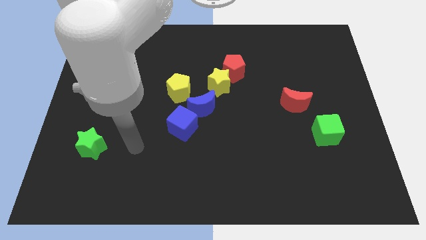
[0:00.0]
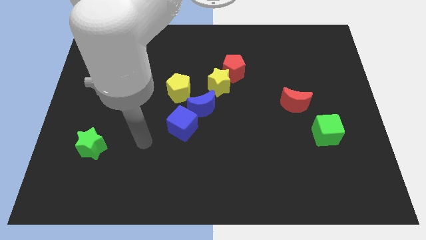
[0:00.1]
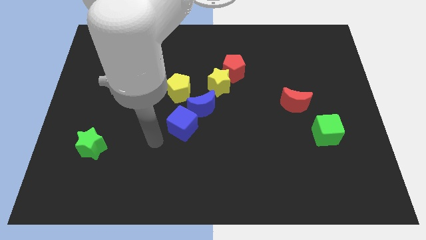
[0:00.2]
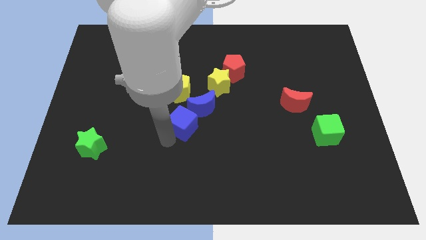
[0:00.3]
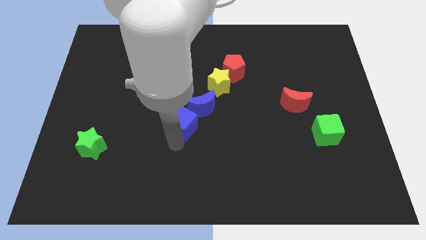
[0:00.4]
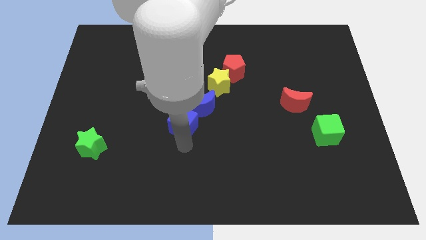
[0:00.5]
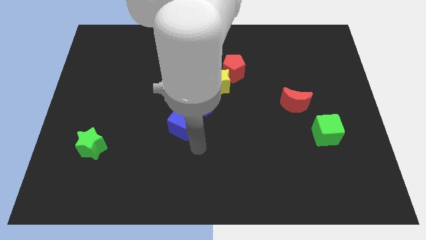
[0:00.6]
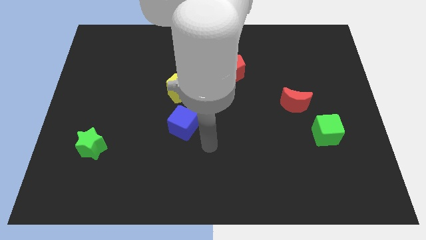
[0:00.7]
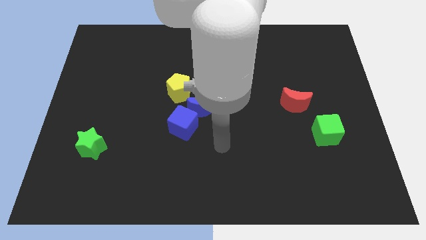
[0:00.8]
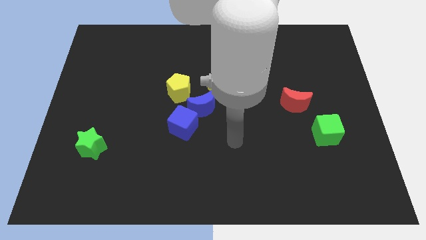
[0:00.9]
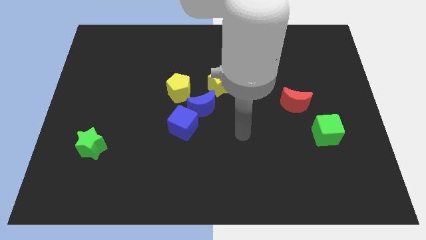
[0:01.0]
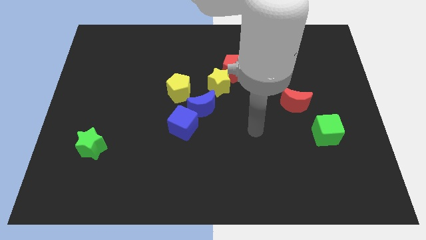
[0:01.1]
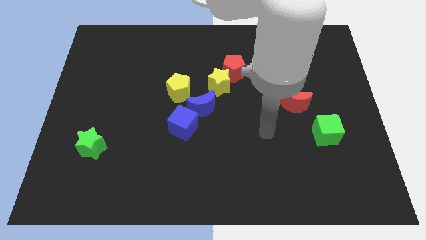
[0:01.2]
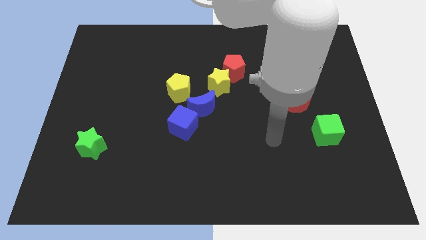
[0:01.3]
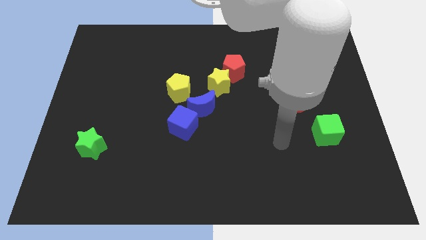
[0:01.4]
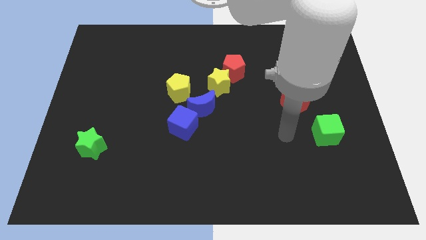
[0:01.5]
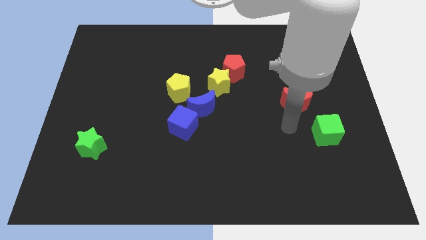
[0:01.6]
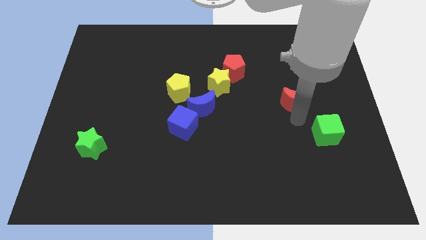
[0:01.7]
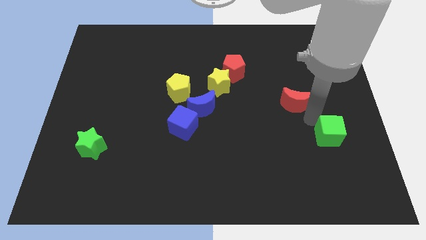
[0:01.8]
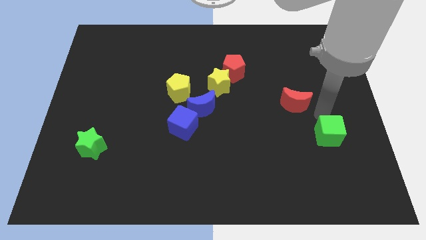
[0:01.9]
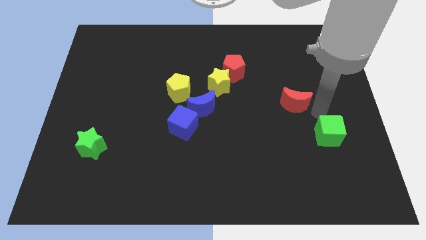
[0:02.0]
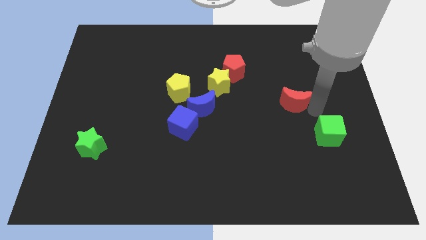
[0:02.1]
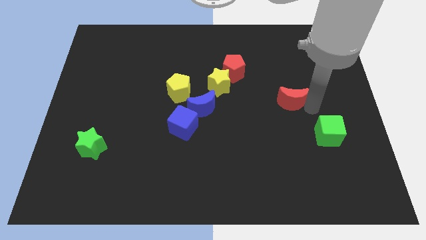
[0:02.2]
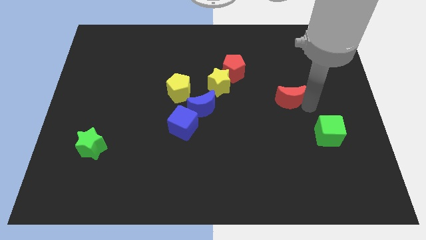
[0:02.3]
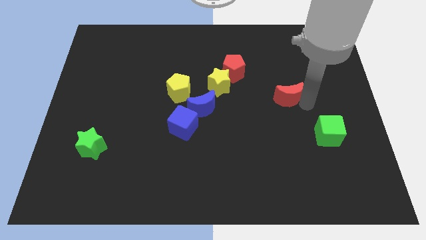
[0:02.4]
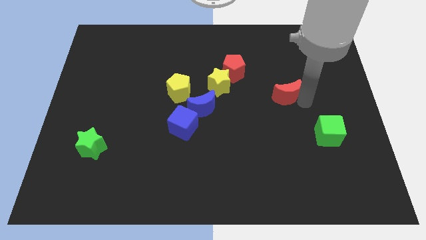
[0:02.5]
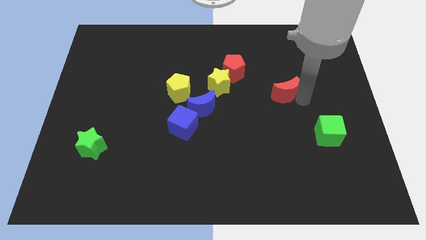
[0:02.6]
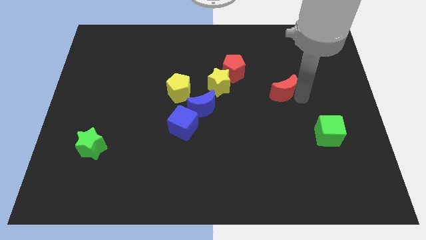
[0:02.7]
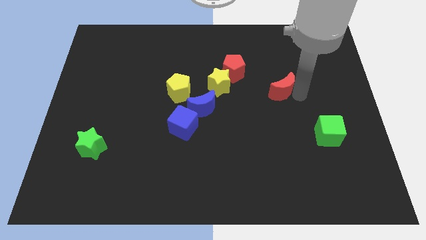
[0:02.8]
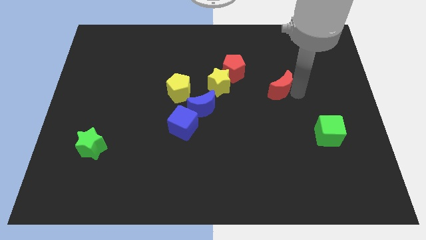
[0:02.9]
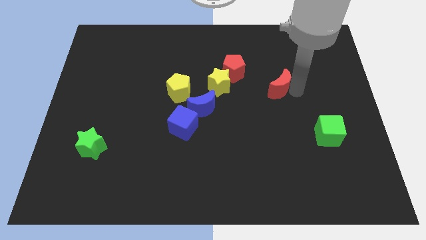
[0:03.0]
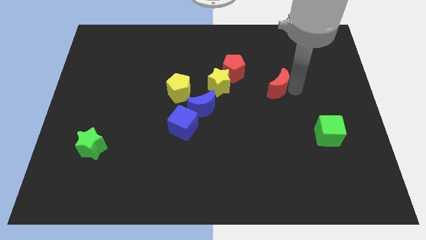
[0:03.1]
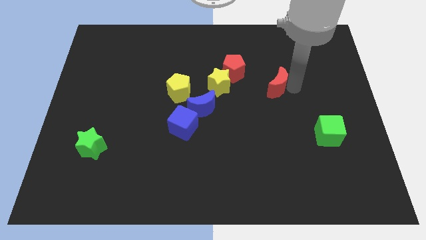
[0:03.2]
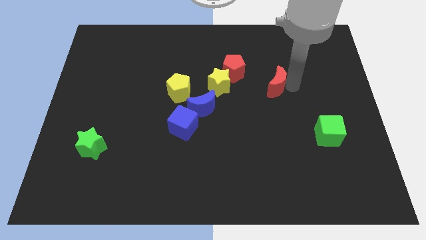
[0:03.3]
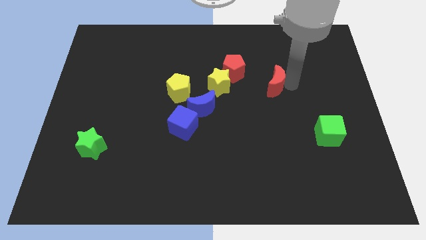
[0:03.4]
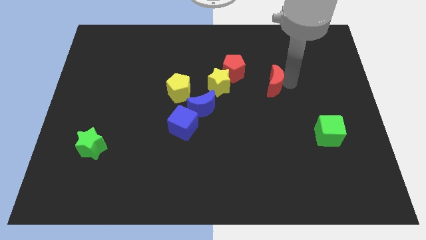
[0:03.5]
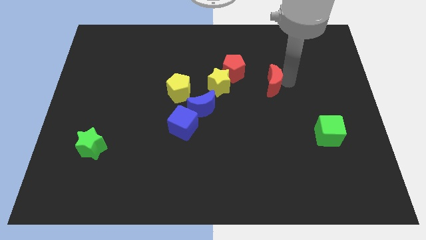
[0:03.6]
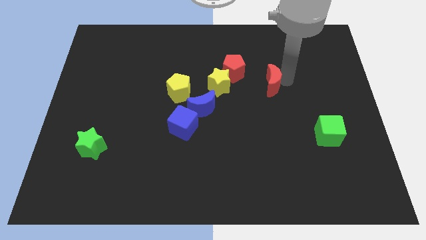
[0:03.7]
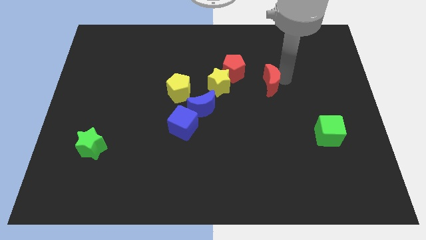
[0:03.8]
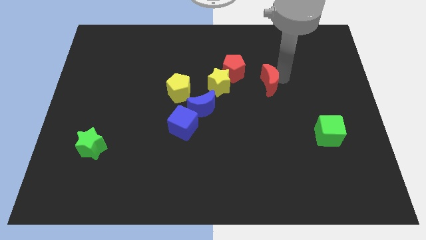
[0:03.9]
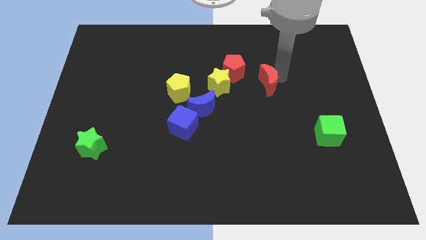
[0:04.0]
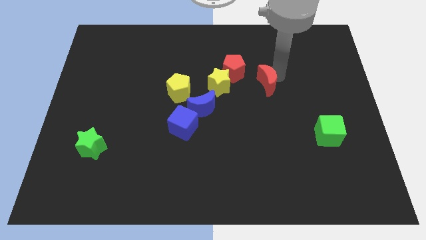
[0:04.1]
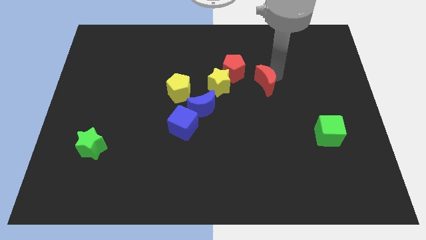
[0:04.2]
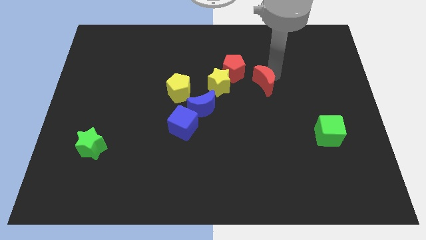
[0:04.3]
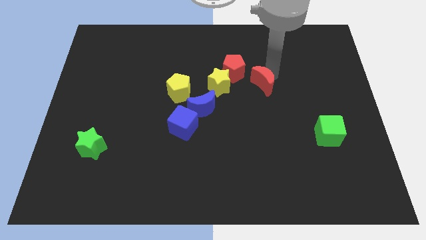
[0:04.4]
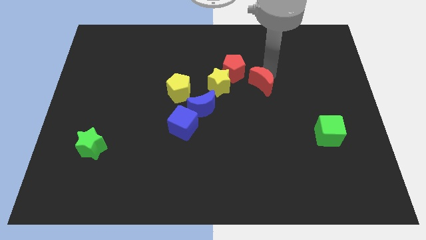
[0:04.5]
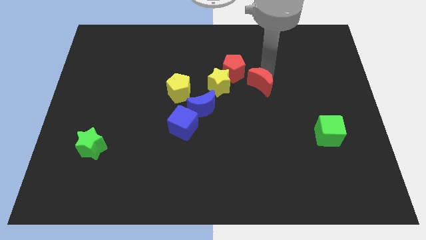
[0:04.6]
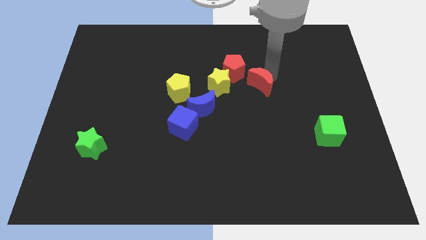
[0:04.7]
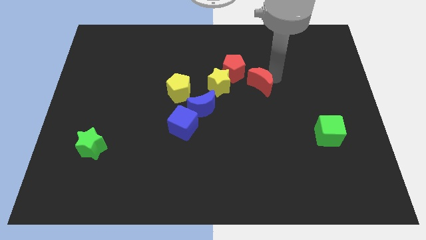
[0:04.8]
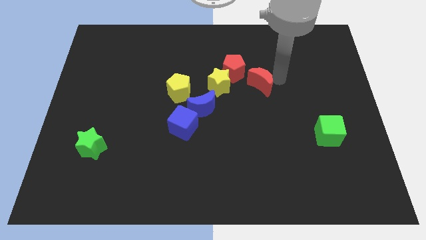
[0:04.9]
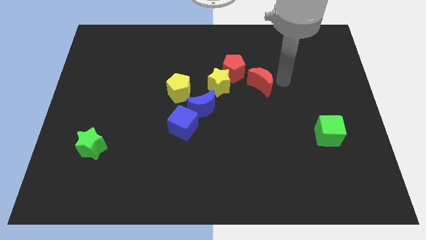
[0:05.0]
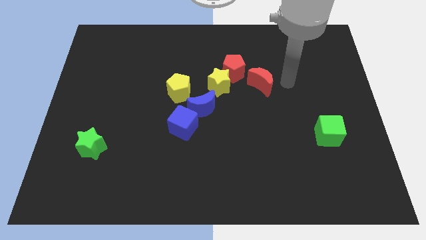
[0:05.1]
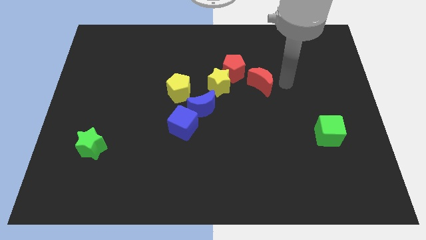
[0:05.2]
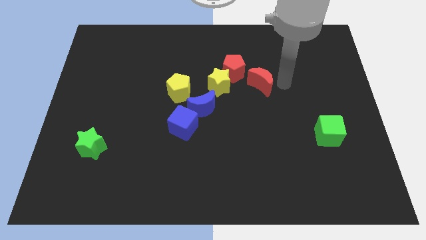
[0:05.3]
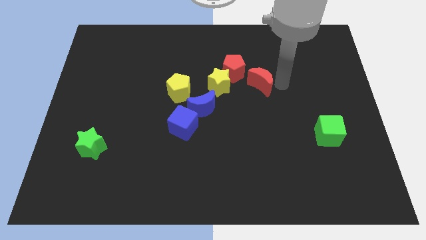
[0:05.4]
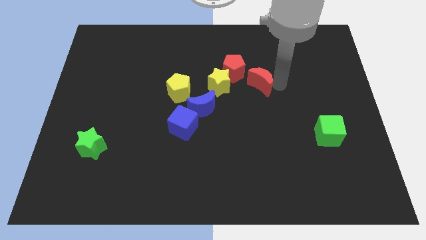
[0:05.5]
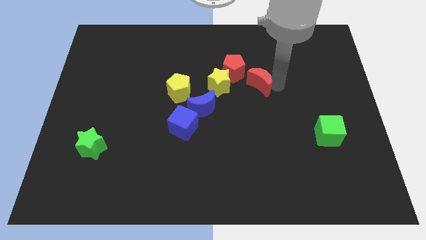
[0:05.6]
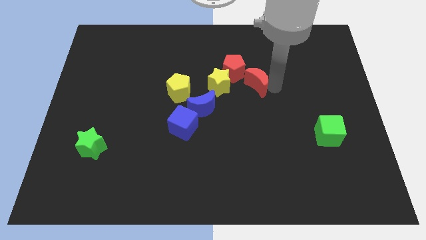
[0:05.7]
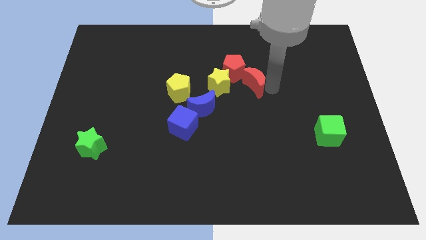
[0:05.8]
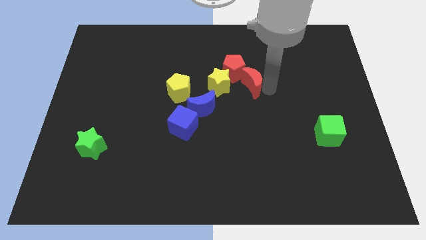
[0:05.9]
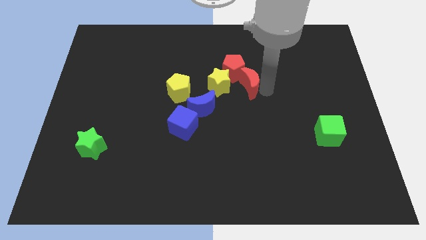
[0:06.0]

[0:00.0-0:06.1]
move the red moon to the red pentagon

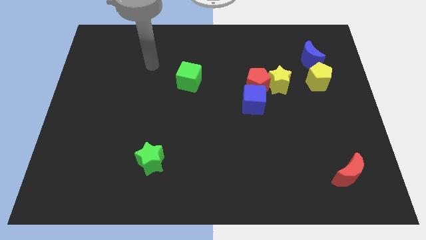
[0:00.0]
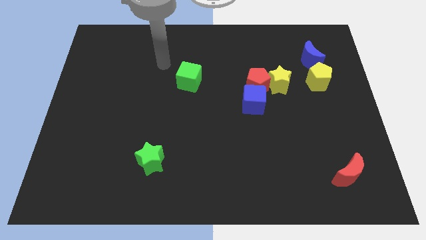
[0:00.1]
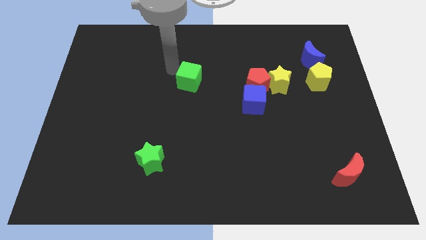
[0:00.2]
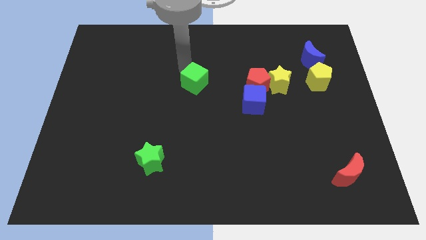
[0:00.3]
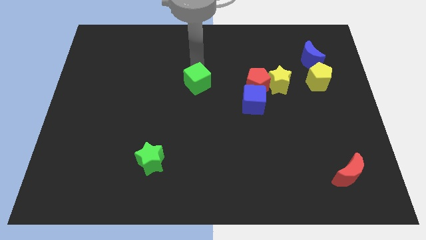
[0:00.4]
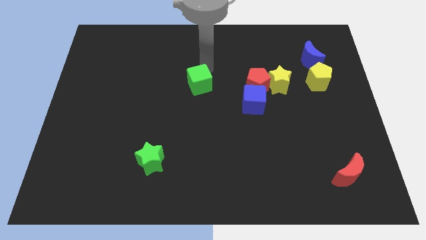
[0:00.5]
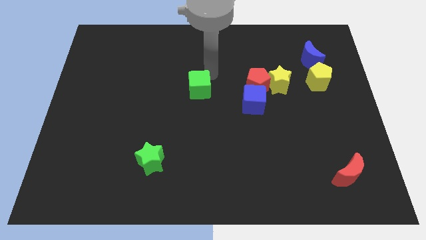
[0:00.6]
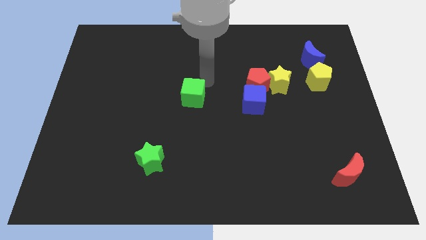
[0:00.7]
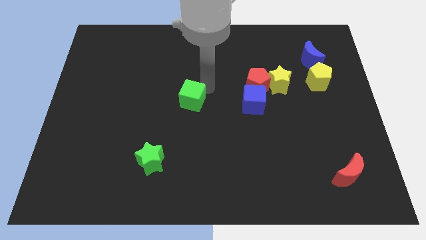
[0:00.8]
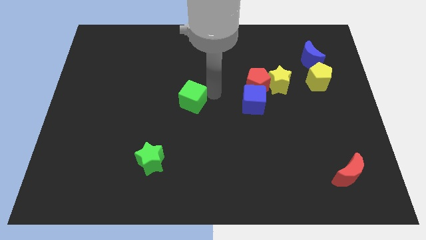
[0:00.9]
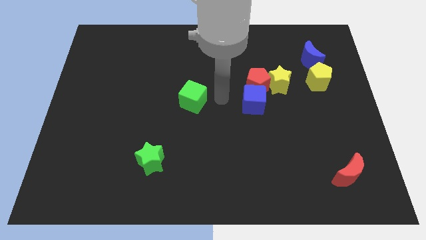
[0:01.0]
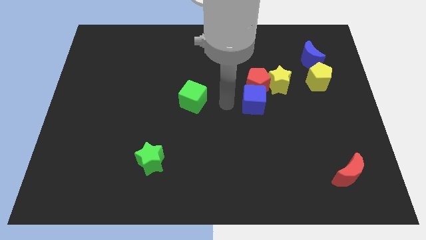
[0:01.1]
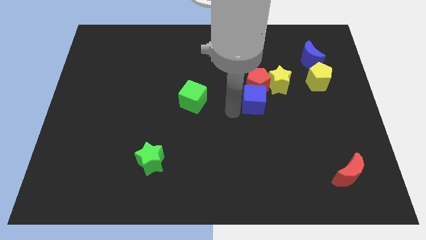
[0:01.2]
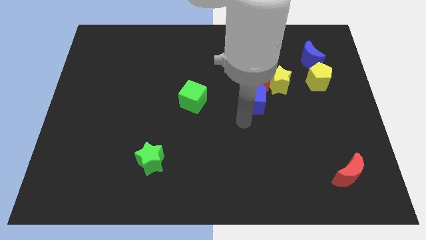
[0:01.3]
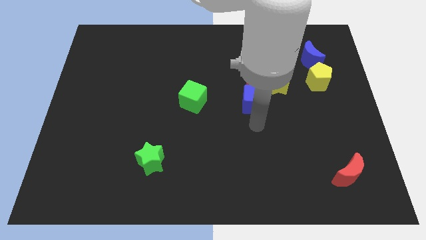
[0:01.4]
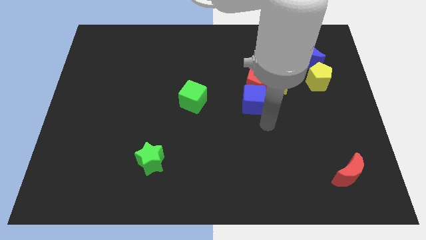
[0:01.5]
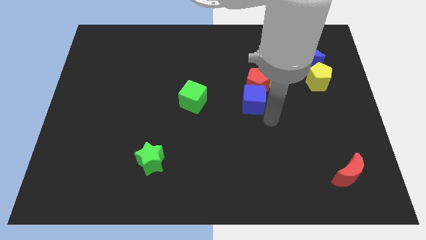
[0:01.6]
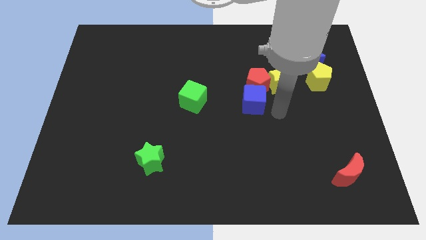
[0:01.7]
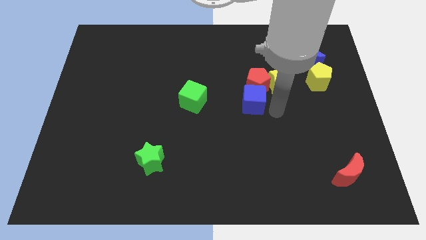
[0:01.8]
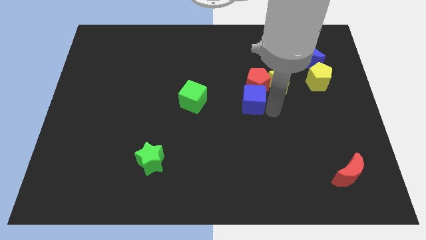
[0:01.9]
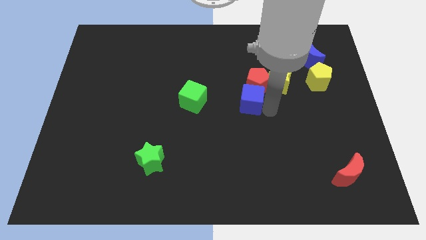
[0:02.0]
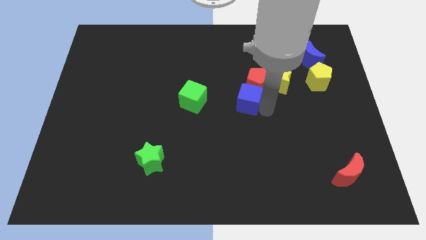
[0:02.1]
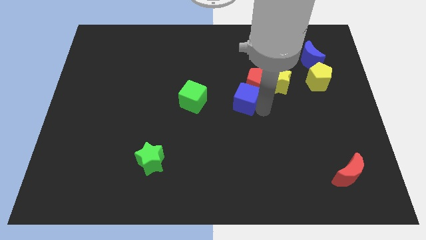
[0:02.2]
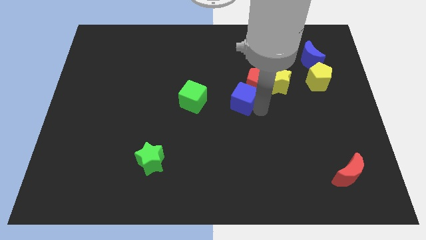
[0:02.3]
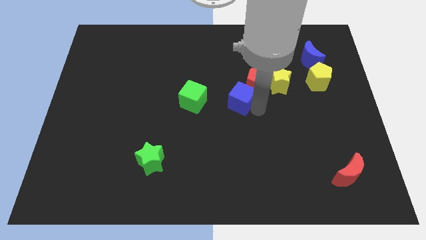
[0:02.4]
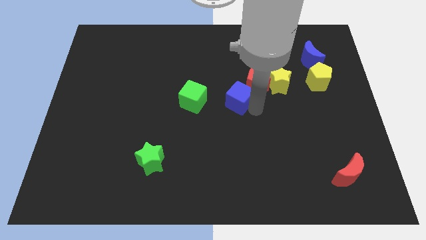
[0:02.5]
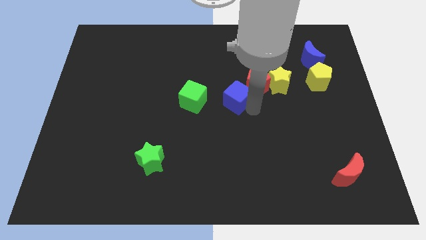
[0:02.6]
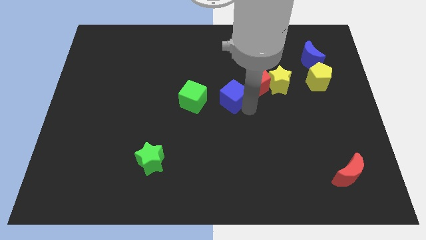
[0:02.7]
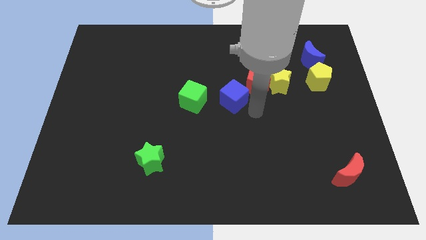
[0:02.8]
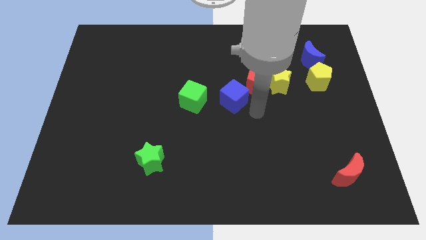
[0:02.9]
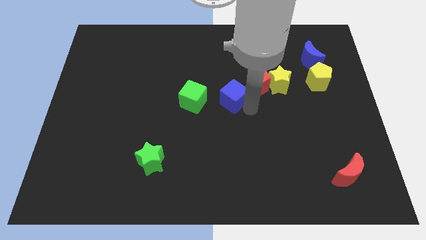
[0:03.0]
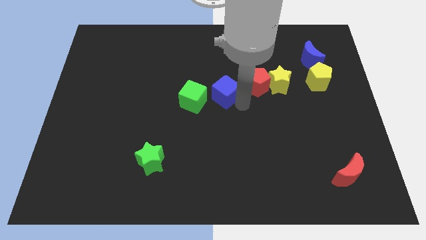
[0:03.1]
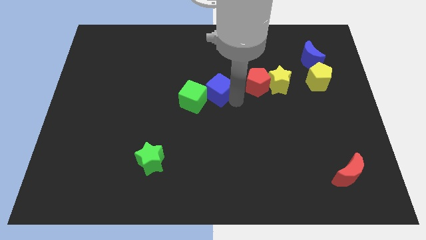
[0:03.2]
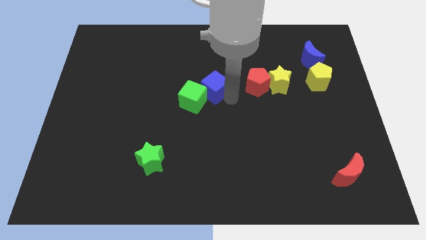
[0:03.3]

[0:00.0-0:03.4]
push the blue cube close to the green cube
